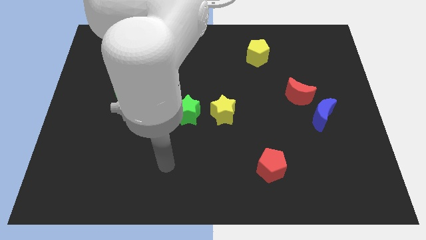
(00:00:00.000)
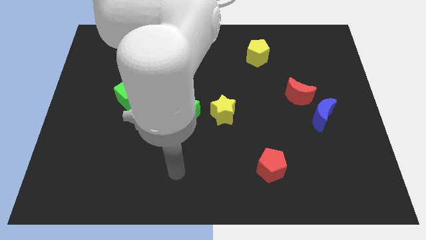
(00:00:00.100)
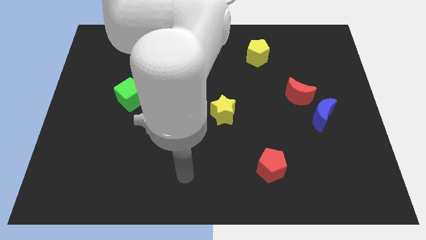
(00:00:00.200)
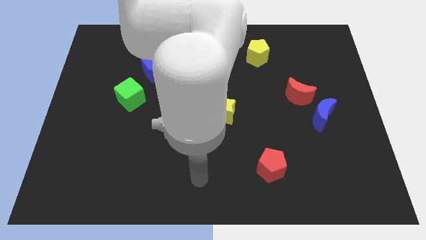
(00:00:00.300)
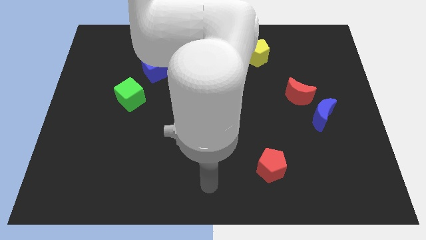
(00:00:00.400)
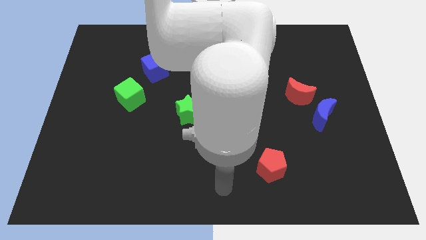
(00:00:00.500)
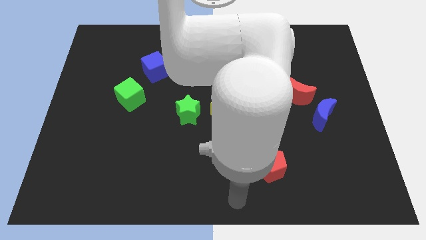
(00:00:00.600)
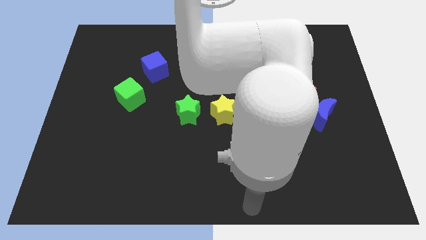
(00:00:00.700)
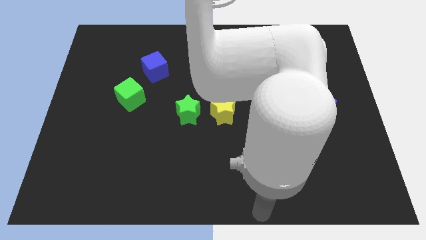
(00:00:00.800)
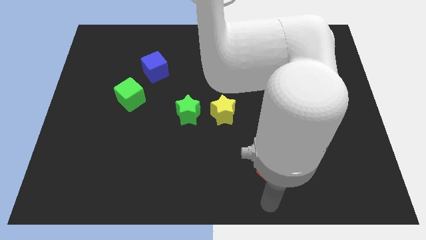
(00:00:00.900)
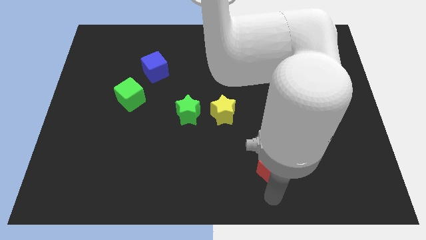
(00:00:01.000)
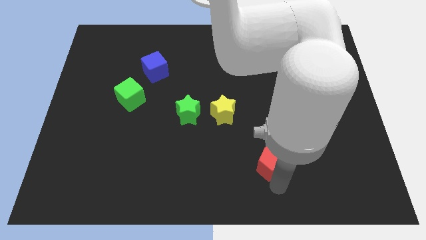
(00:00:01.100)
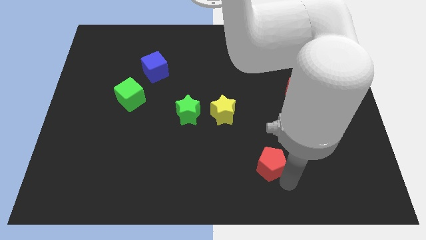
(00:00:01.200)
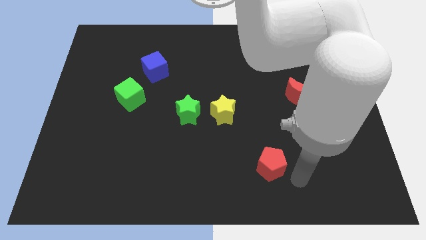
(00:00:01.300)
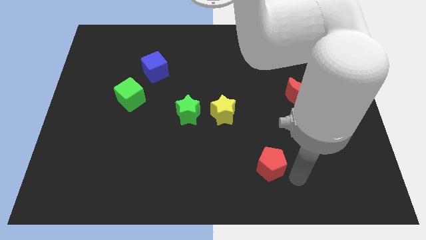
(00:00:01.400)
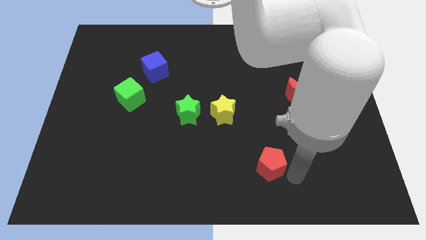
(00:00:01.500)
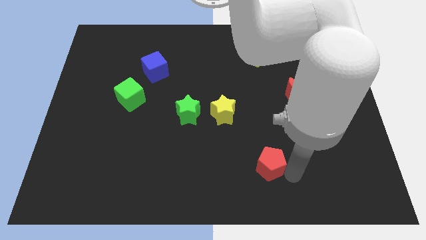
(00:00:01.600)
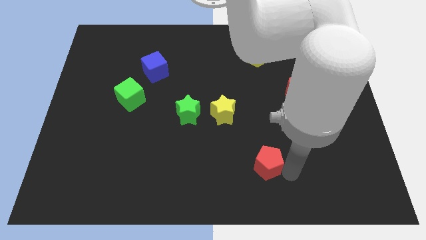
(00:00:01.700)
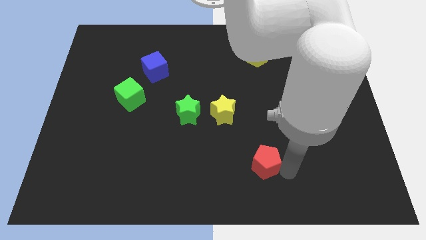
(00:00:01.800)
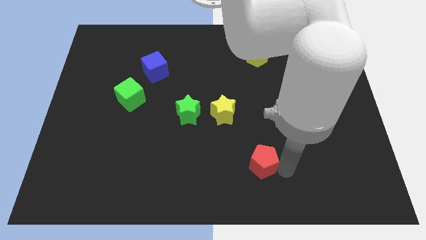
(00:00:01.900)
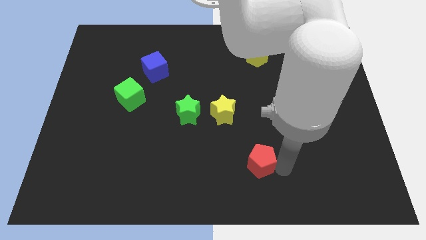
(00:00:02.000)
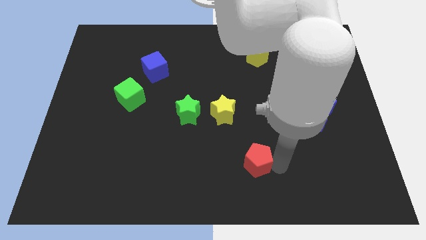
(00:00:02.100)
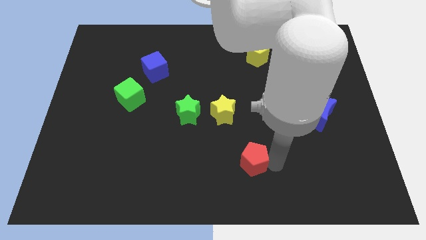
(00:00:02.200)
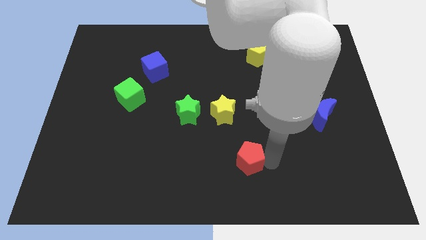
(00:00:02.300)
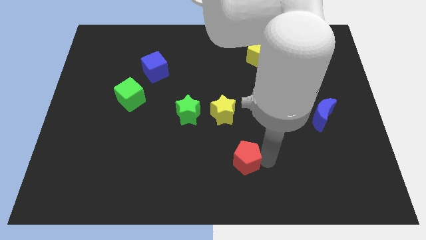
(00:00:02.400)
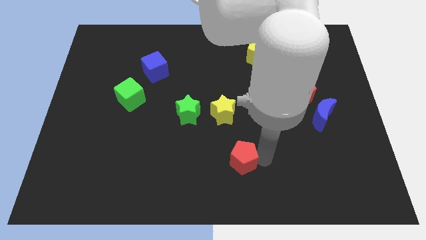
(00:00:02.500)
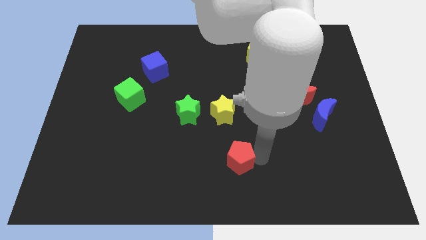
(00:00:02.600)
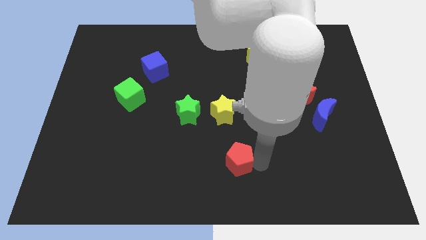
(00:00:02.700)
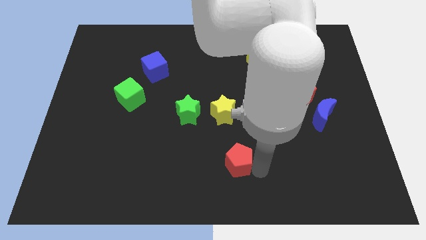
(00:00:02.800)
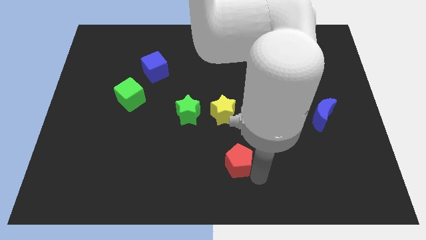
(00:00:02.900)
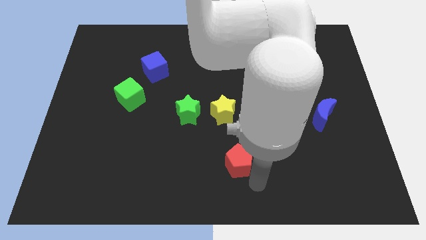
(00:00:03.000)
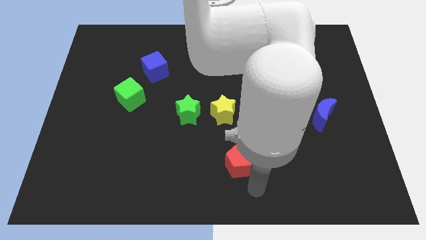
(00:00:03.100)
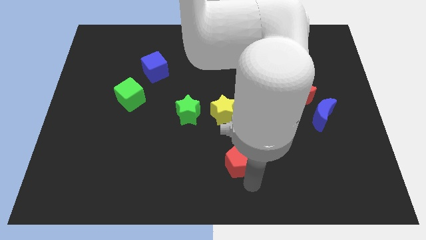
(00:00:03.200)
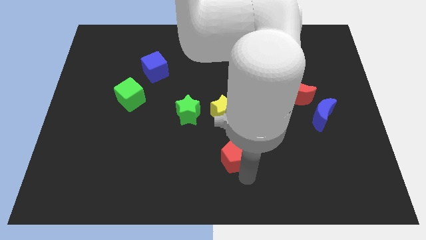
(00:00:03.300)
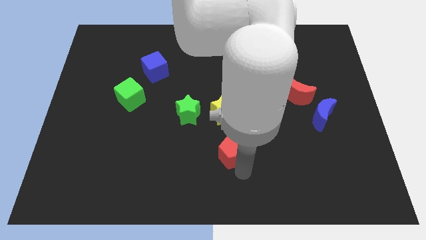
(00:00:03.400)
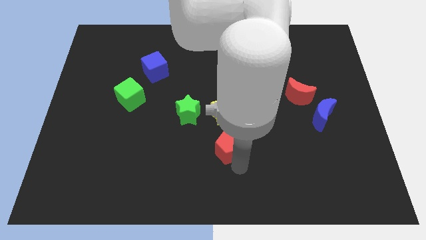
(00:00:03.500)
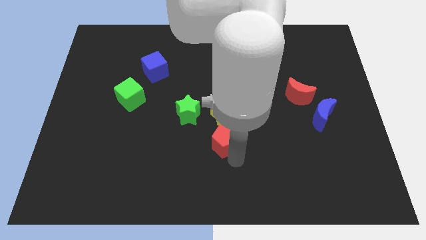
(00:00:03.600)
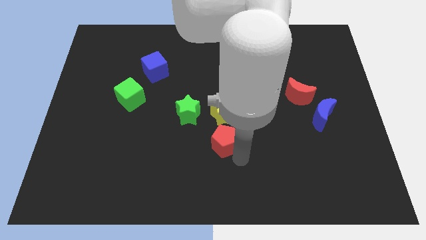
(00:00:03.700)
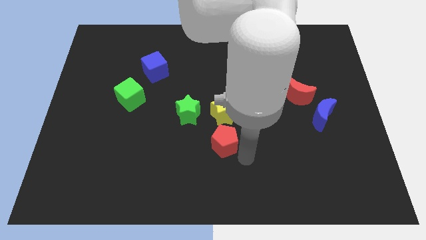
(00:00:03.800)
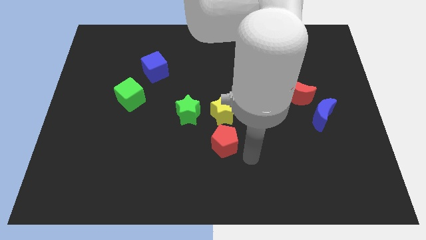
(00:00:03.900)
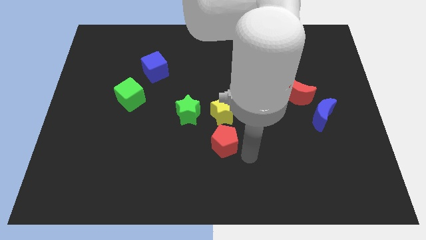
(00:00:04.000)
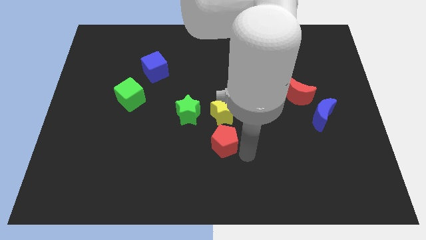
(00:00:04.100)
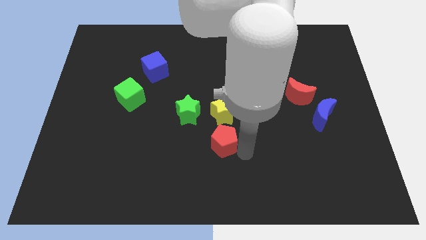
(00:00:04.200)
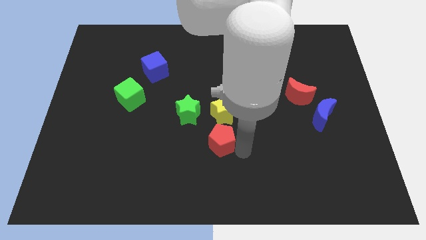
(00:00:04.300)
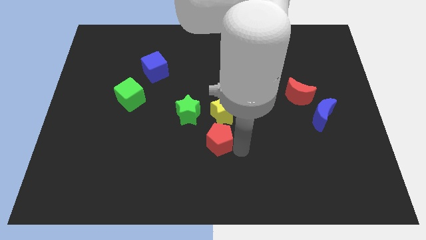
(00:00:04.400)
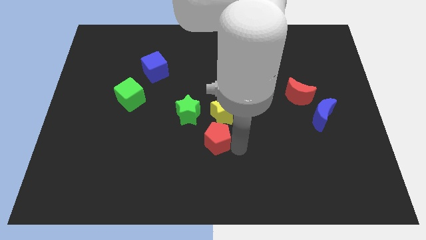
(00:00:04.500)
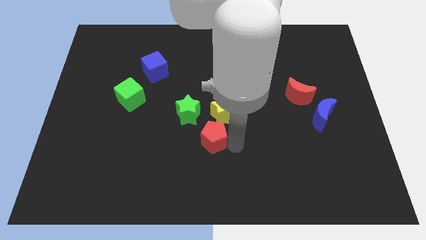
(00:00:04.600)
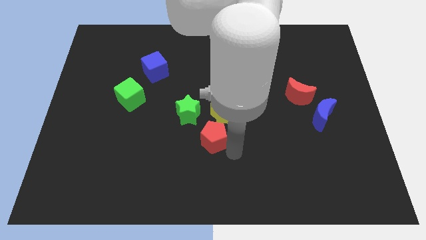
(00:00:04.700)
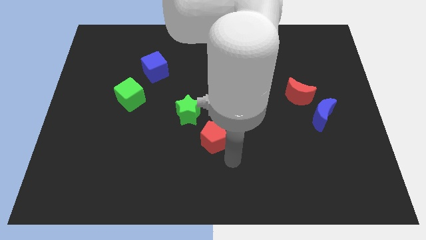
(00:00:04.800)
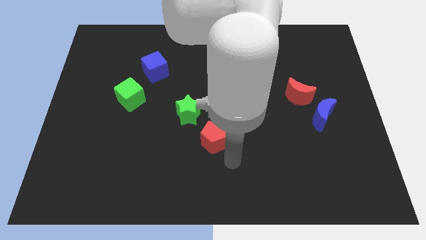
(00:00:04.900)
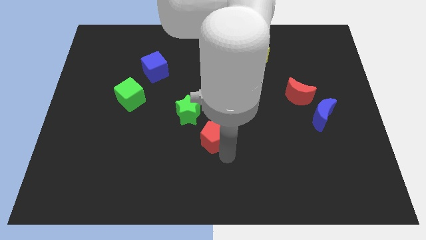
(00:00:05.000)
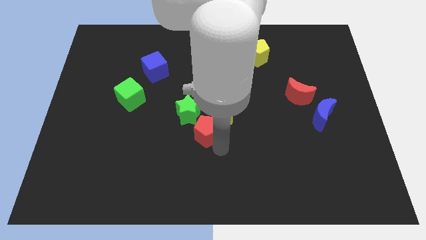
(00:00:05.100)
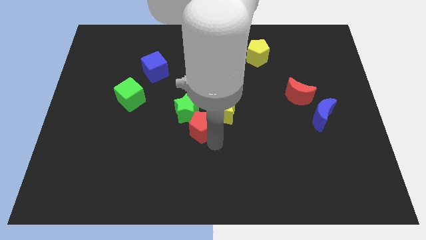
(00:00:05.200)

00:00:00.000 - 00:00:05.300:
slide the red pentagon close to the green star

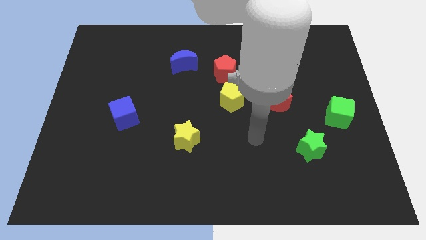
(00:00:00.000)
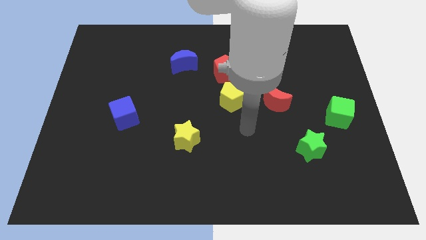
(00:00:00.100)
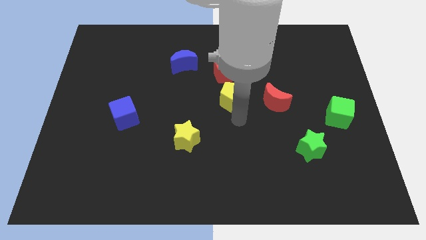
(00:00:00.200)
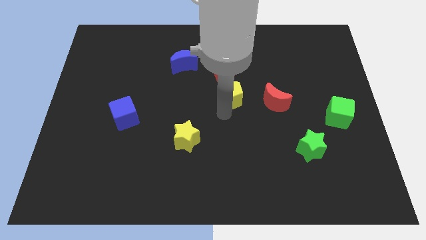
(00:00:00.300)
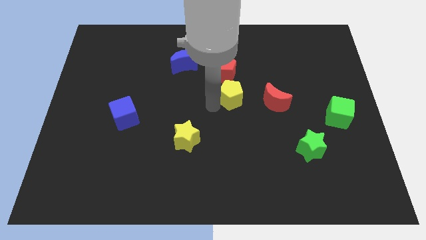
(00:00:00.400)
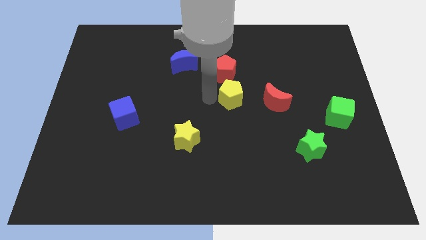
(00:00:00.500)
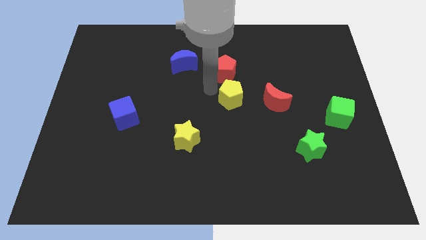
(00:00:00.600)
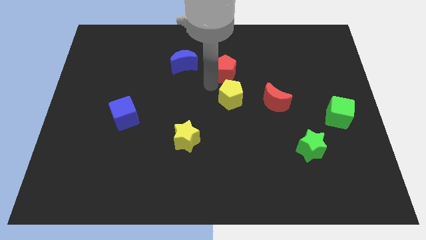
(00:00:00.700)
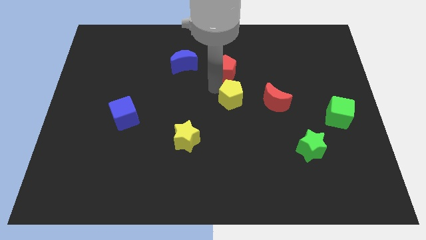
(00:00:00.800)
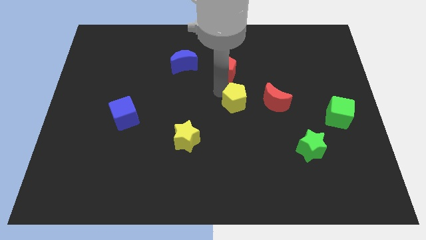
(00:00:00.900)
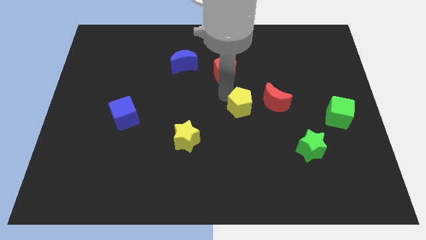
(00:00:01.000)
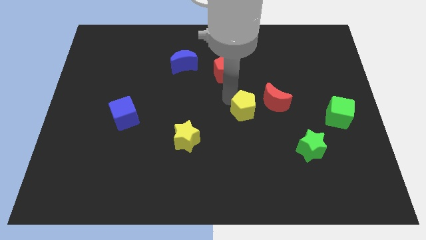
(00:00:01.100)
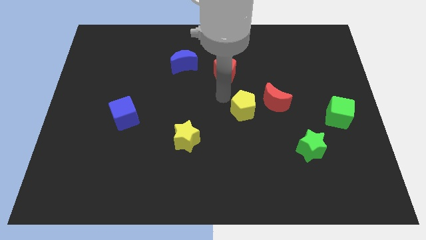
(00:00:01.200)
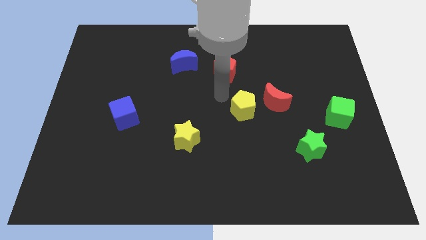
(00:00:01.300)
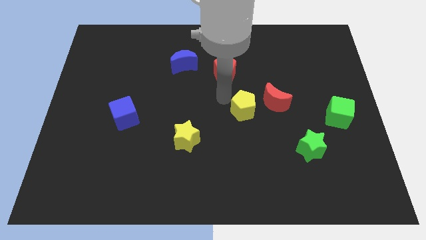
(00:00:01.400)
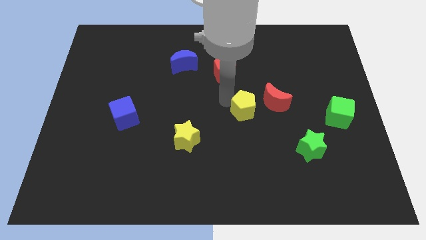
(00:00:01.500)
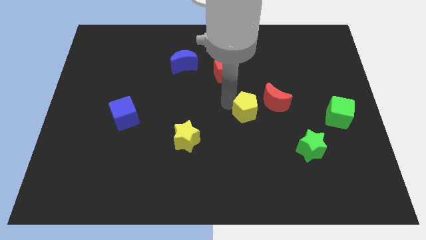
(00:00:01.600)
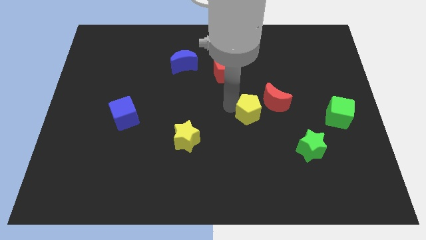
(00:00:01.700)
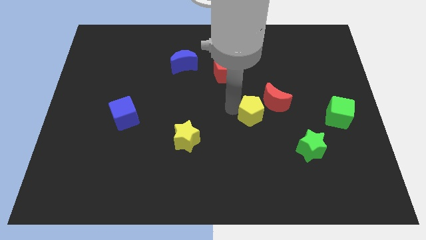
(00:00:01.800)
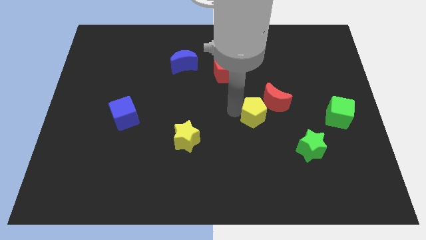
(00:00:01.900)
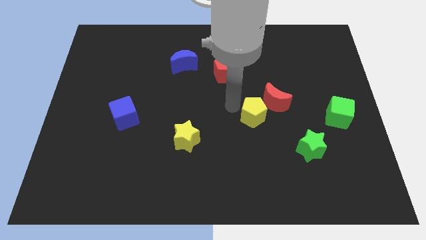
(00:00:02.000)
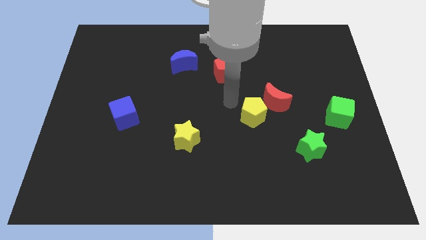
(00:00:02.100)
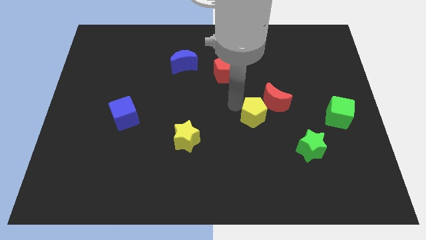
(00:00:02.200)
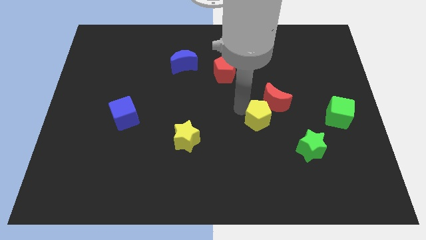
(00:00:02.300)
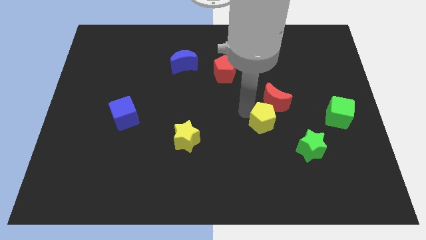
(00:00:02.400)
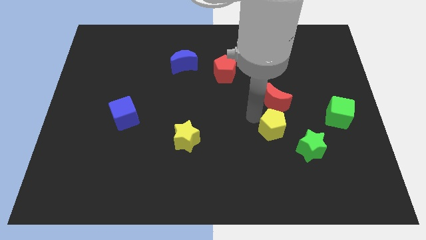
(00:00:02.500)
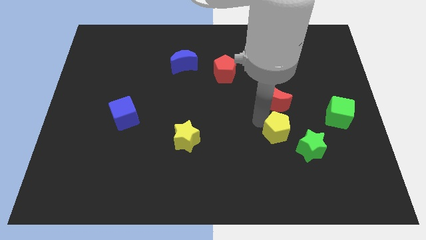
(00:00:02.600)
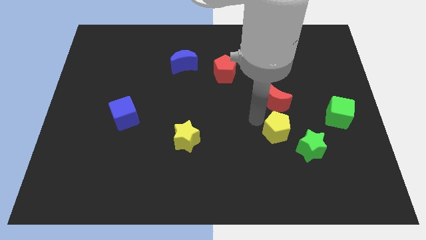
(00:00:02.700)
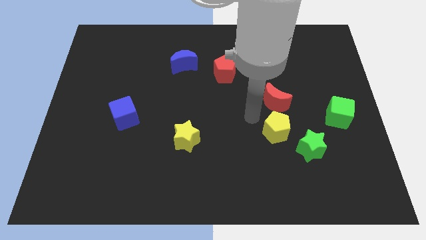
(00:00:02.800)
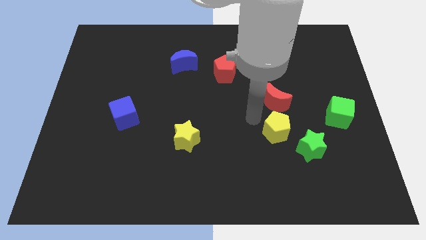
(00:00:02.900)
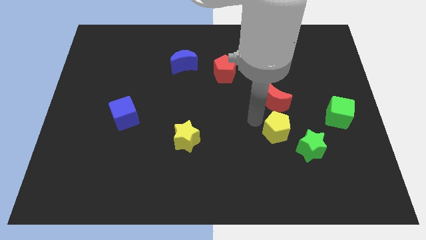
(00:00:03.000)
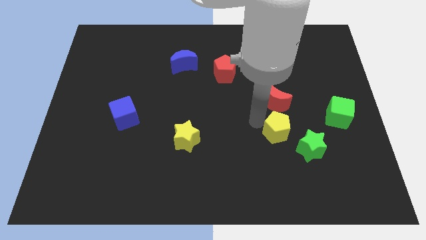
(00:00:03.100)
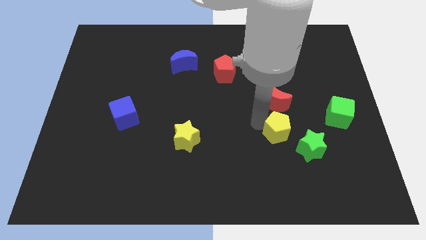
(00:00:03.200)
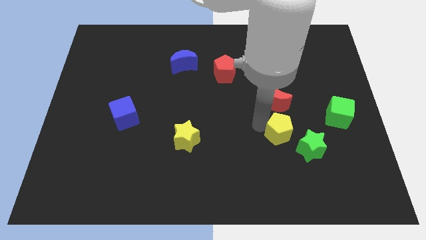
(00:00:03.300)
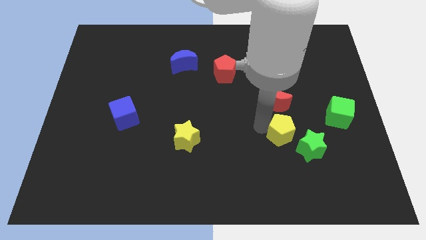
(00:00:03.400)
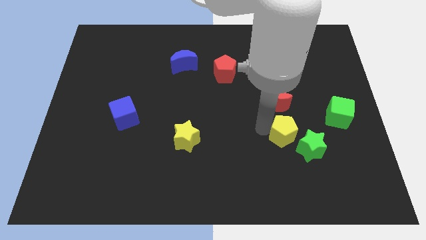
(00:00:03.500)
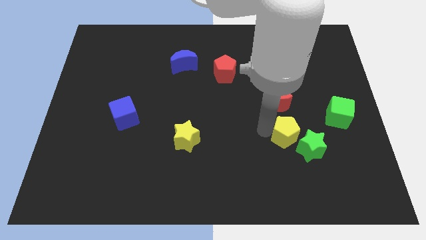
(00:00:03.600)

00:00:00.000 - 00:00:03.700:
slide the yellow pentagon next to the green star
